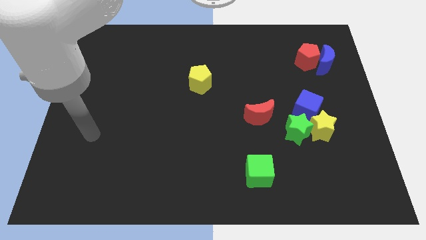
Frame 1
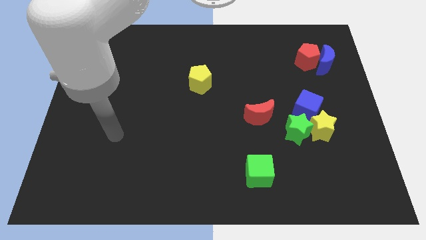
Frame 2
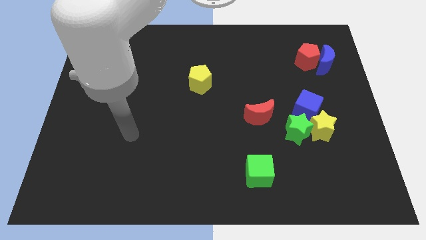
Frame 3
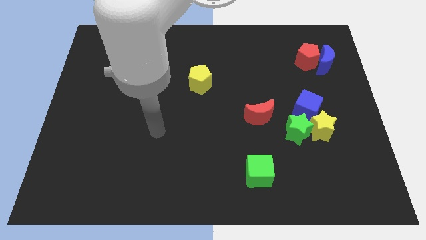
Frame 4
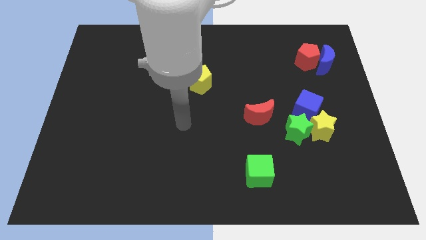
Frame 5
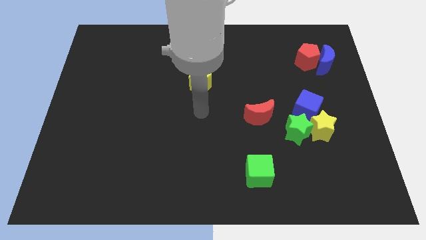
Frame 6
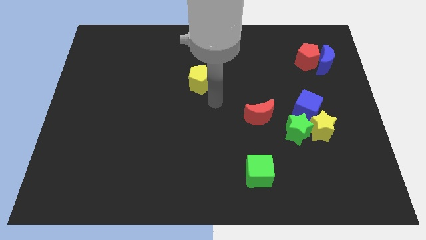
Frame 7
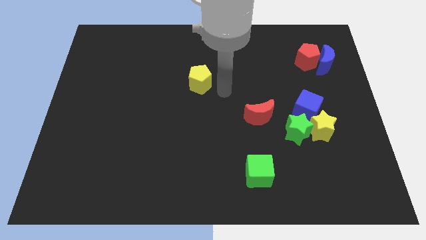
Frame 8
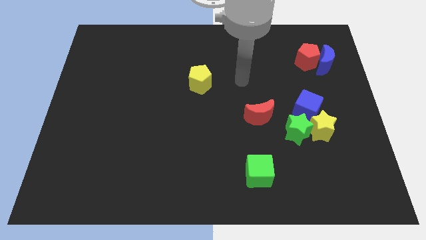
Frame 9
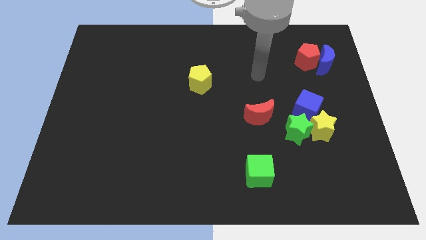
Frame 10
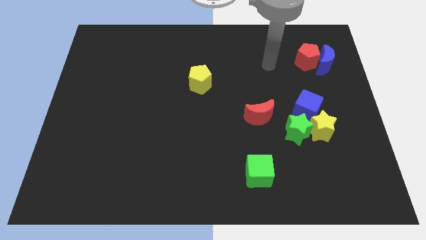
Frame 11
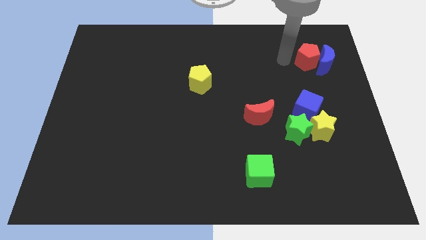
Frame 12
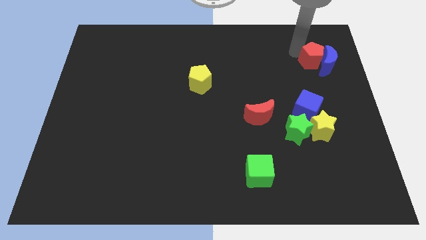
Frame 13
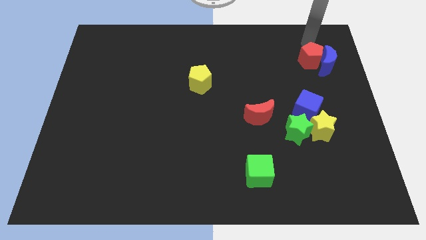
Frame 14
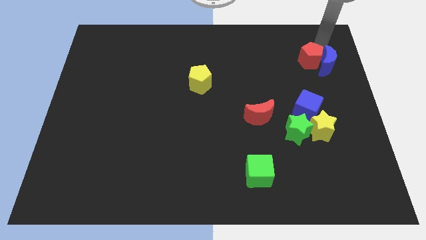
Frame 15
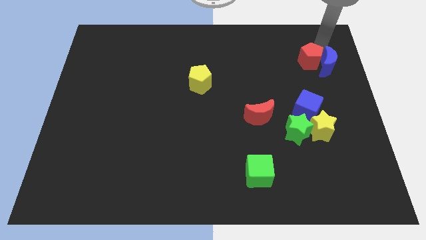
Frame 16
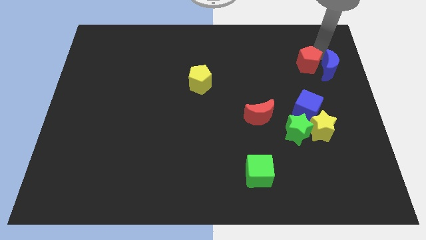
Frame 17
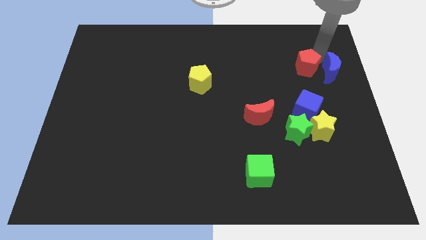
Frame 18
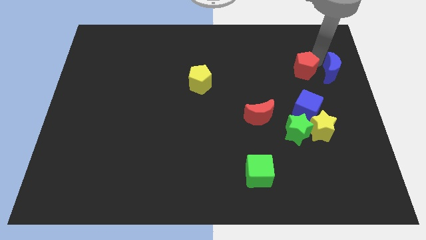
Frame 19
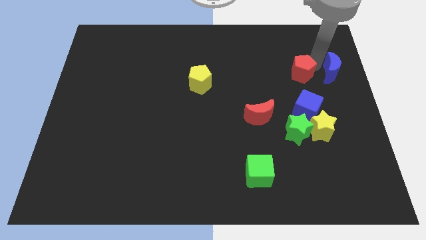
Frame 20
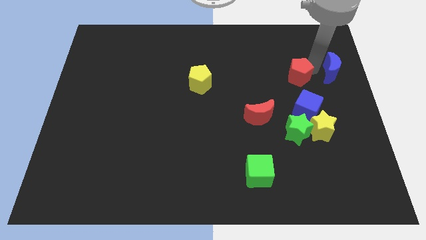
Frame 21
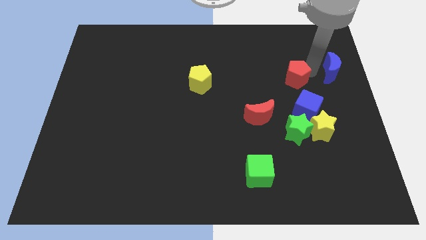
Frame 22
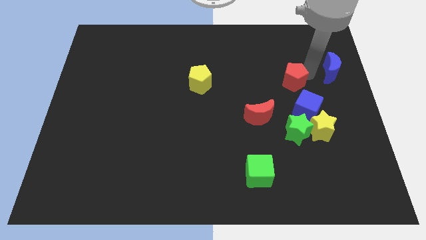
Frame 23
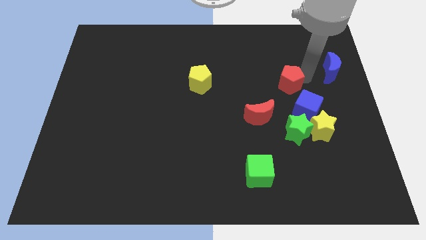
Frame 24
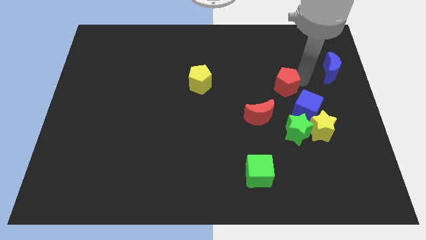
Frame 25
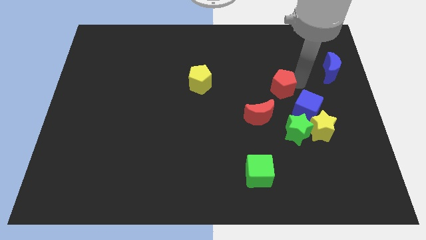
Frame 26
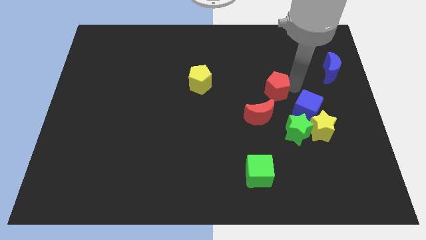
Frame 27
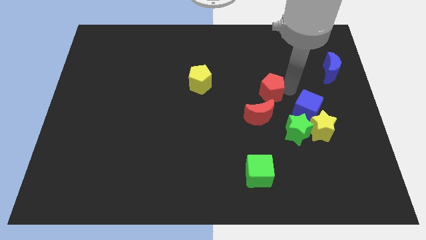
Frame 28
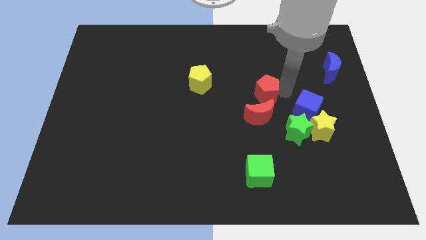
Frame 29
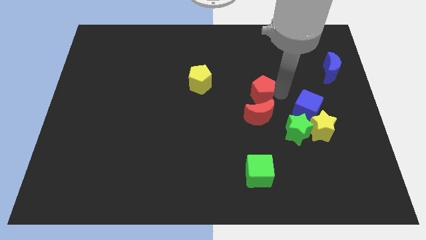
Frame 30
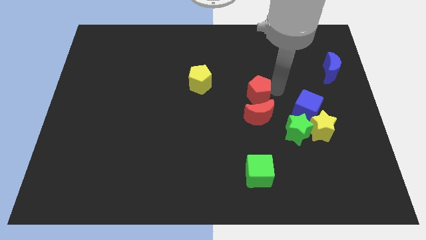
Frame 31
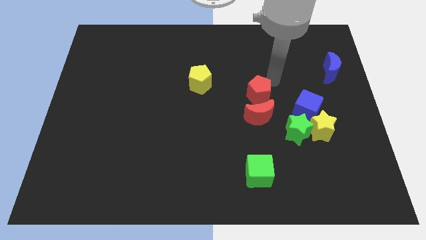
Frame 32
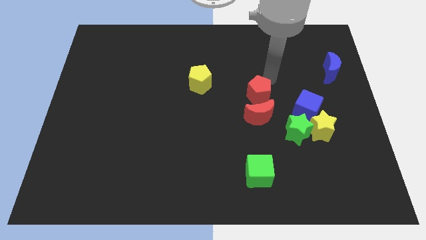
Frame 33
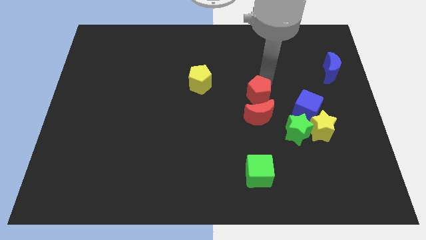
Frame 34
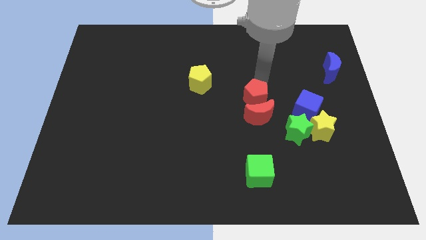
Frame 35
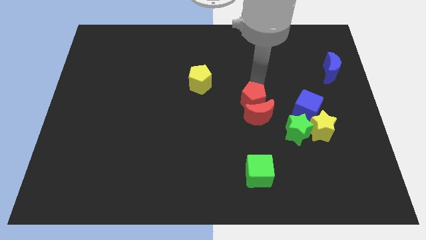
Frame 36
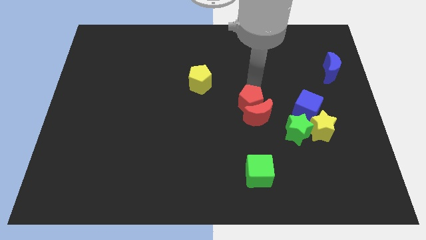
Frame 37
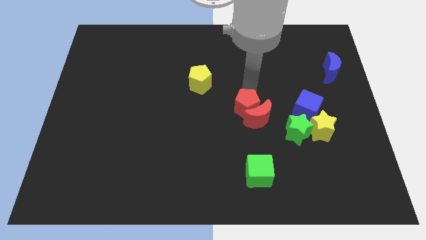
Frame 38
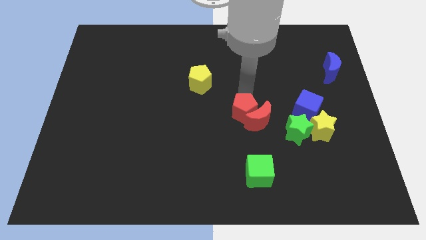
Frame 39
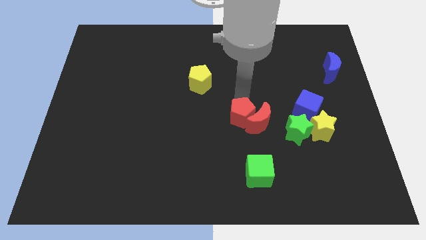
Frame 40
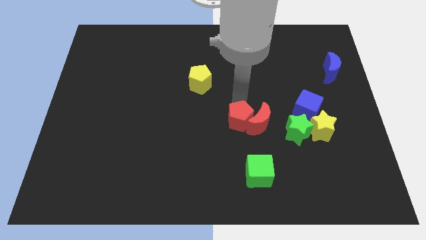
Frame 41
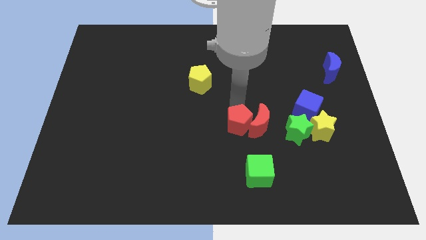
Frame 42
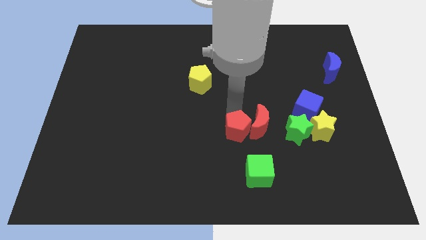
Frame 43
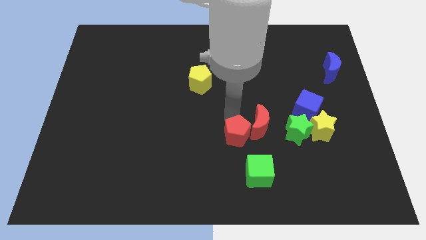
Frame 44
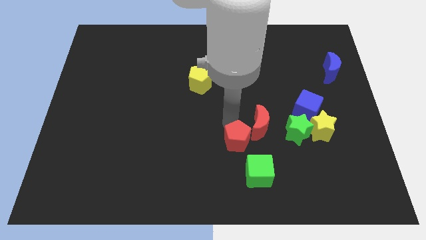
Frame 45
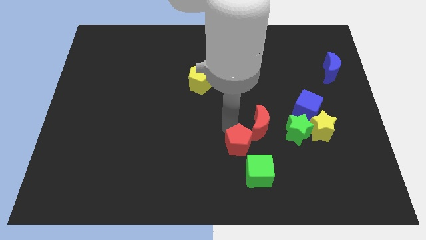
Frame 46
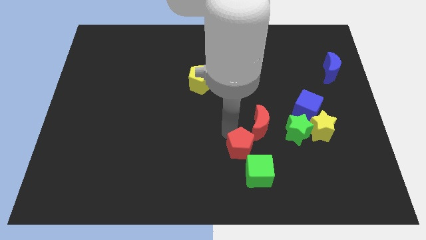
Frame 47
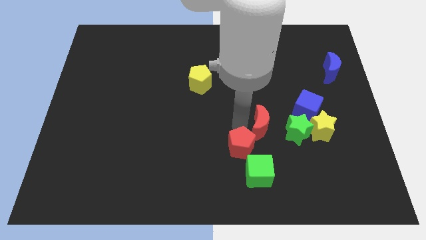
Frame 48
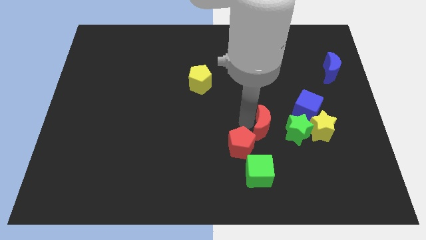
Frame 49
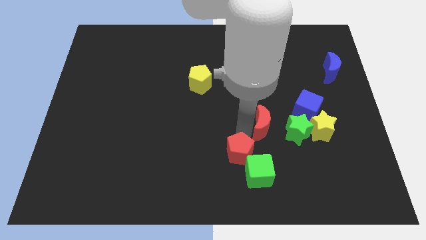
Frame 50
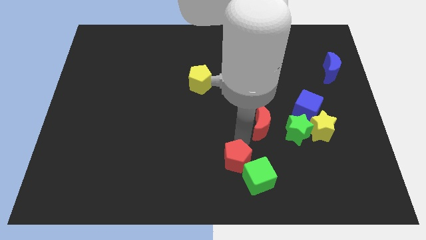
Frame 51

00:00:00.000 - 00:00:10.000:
move the red pentagon to the bottom side

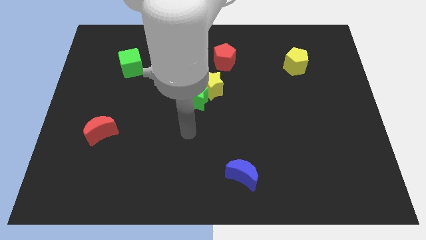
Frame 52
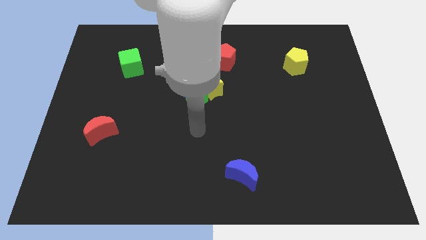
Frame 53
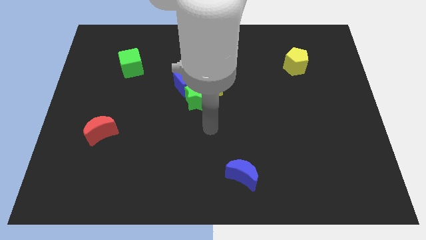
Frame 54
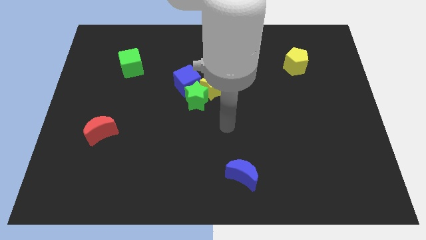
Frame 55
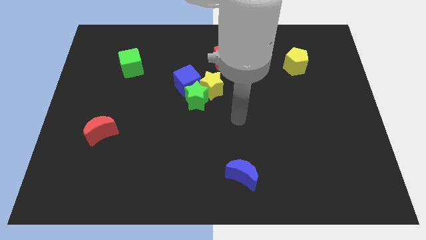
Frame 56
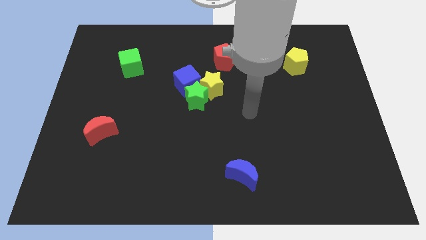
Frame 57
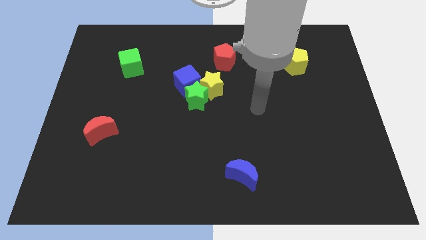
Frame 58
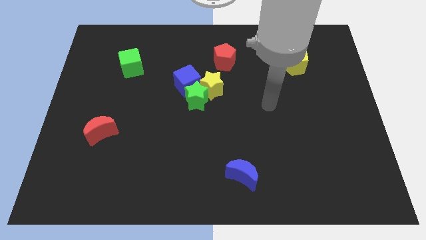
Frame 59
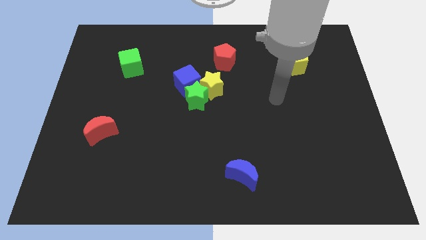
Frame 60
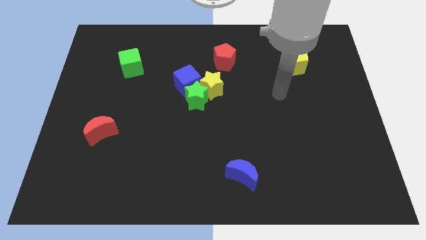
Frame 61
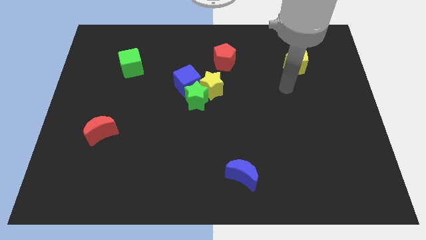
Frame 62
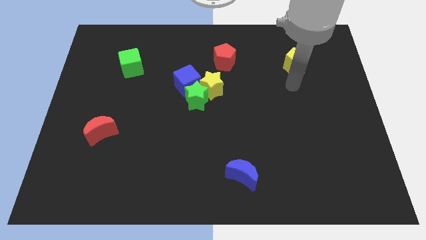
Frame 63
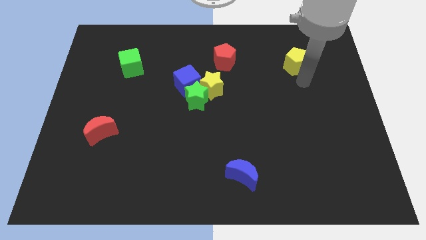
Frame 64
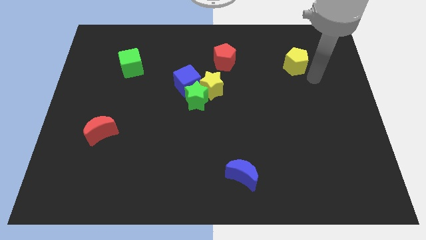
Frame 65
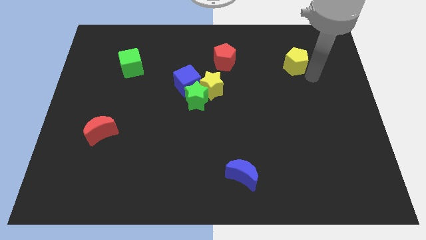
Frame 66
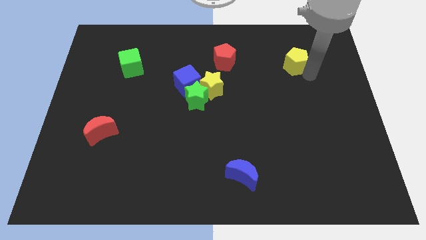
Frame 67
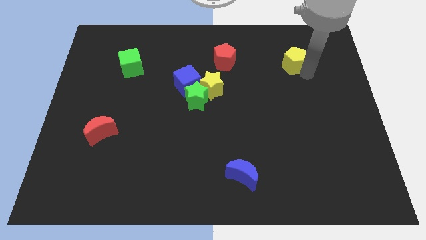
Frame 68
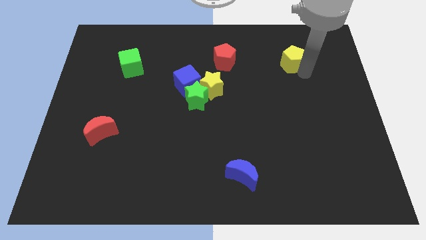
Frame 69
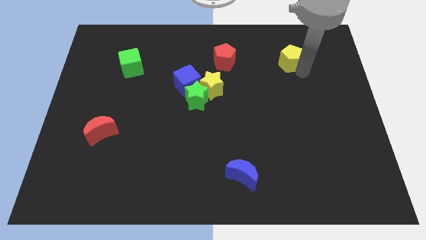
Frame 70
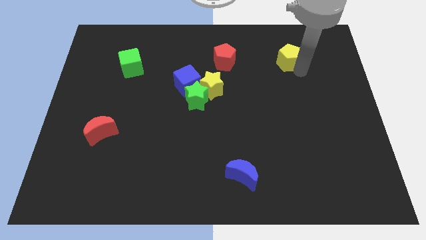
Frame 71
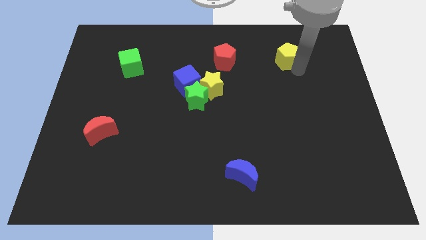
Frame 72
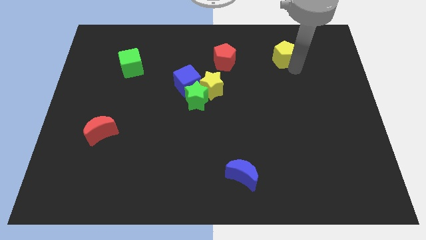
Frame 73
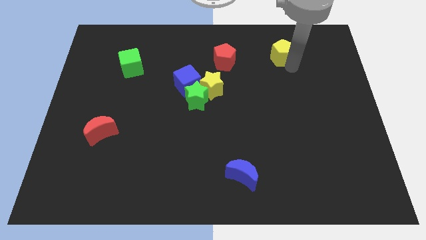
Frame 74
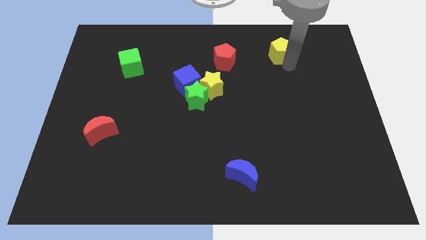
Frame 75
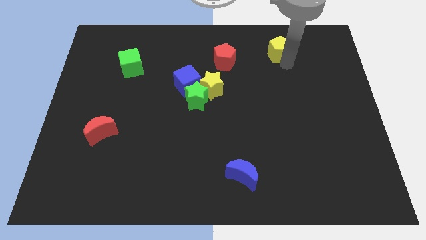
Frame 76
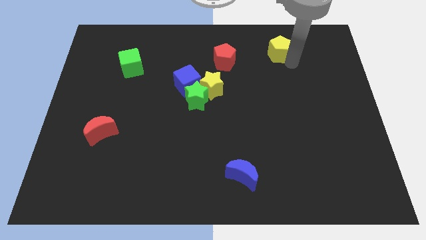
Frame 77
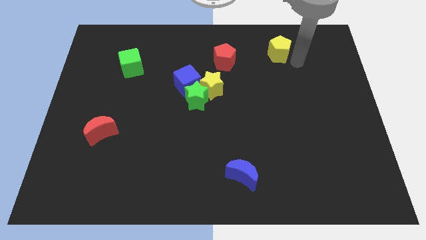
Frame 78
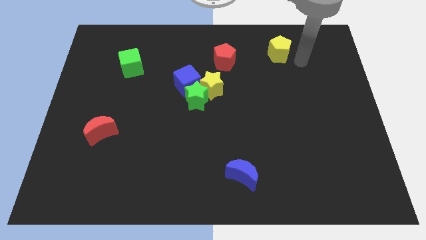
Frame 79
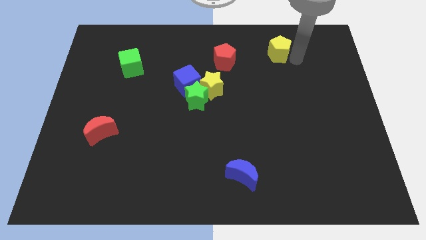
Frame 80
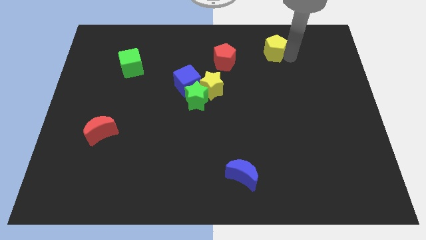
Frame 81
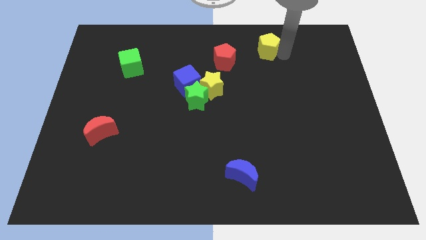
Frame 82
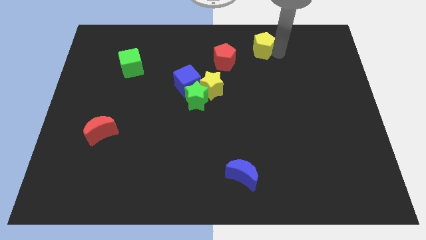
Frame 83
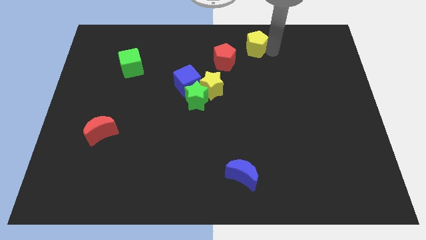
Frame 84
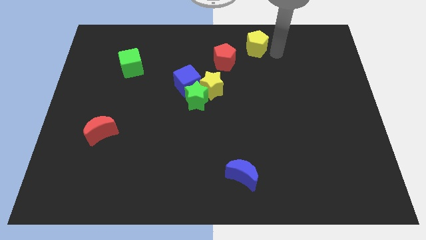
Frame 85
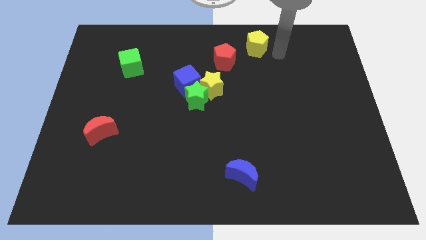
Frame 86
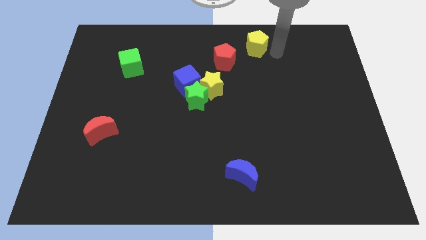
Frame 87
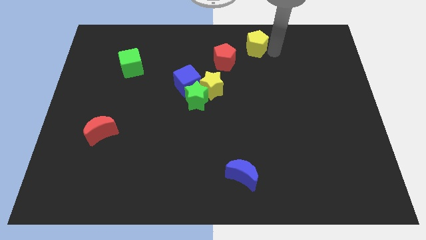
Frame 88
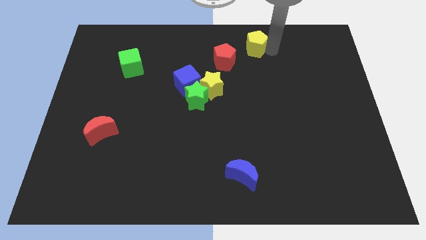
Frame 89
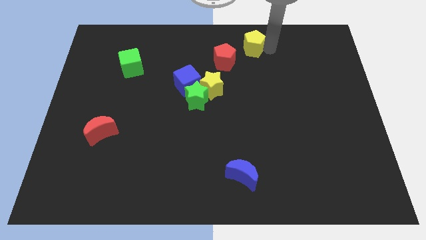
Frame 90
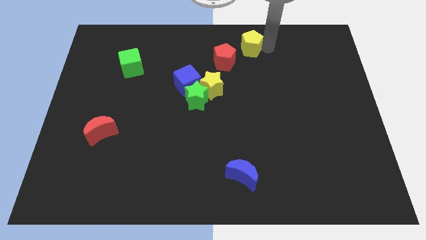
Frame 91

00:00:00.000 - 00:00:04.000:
move the yellow pentagon to the towards your base
